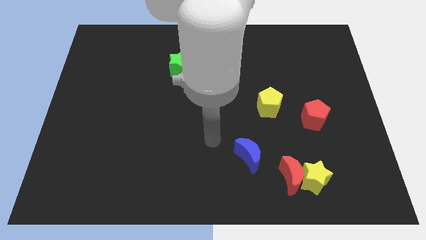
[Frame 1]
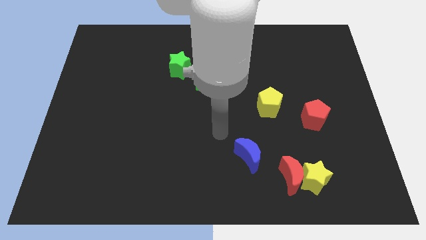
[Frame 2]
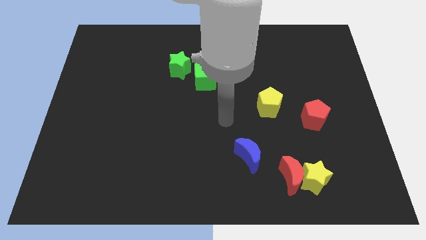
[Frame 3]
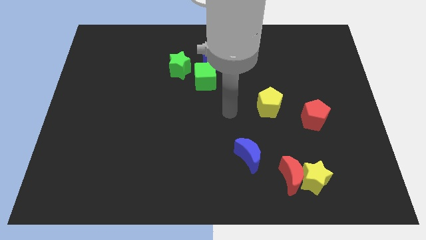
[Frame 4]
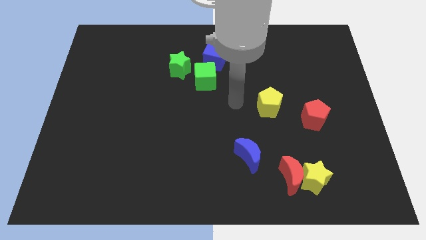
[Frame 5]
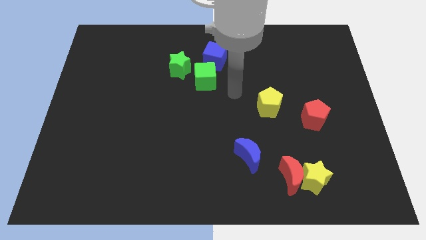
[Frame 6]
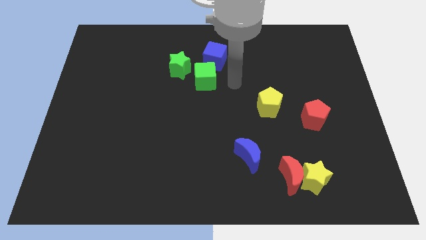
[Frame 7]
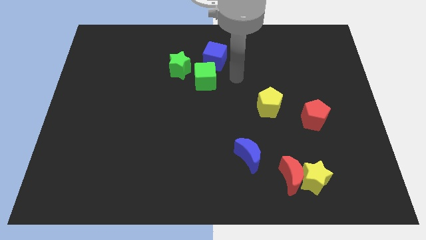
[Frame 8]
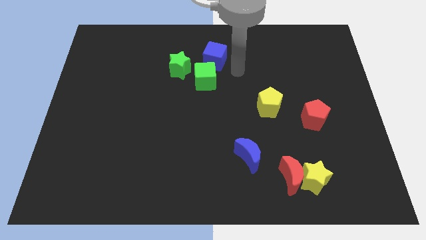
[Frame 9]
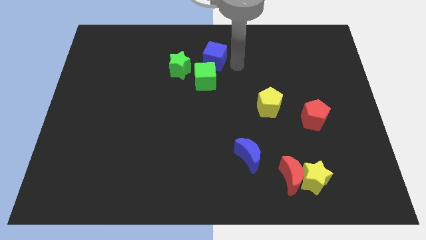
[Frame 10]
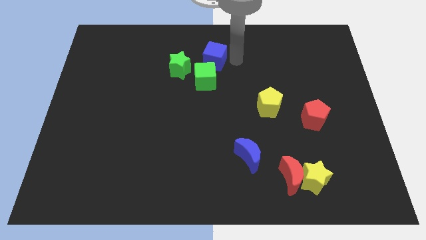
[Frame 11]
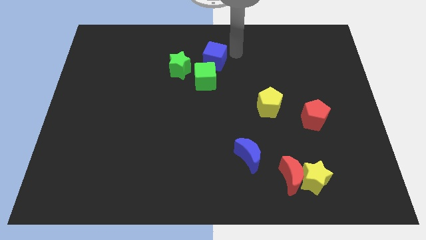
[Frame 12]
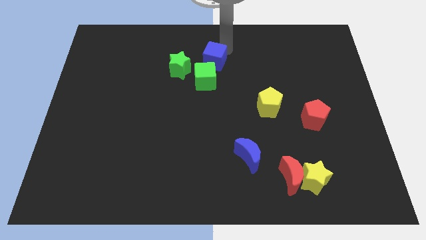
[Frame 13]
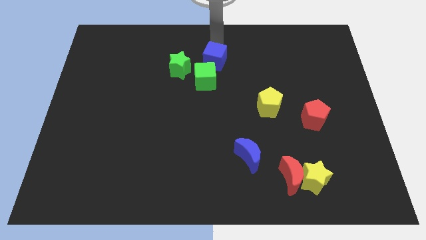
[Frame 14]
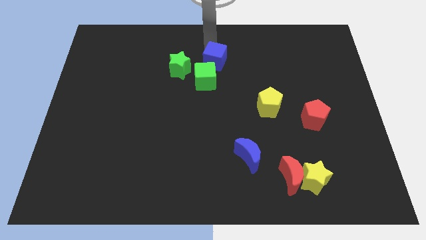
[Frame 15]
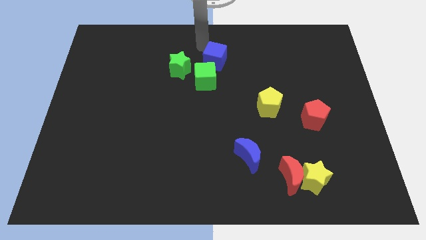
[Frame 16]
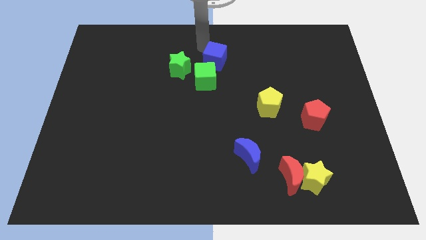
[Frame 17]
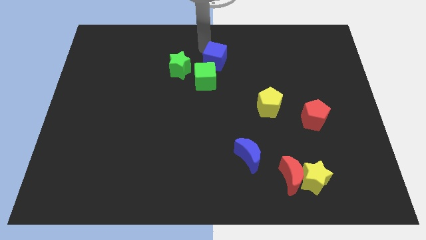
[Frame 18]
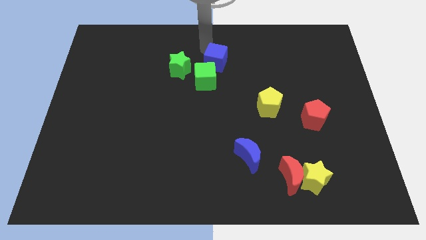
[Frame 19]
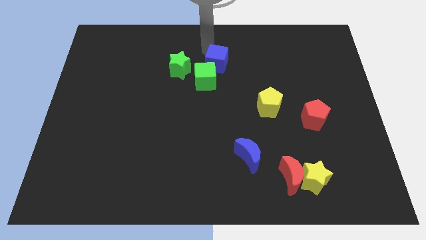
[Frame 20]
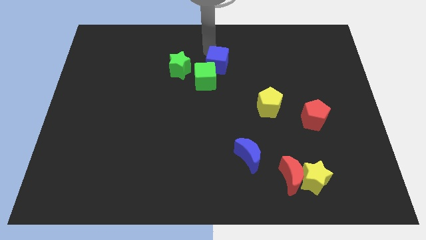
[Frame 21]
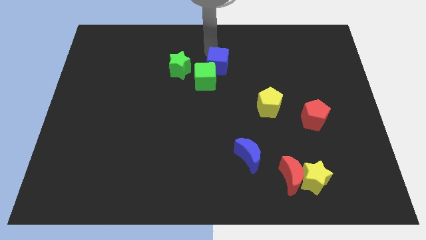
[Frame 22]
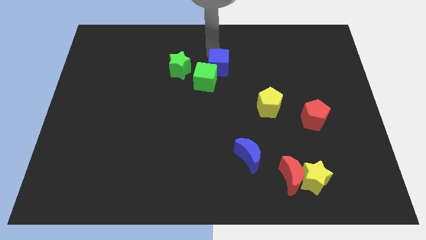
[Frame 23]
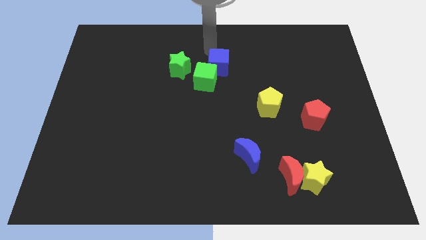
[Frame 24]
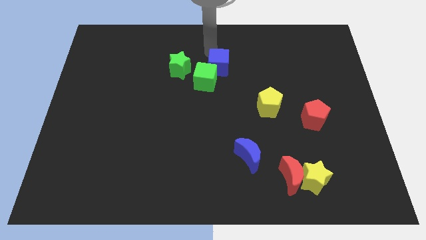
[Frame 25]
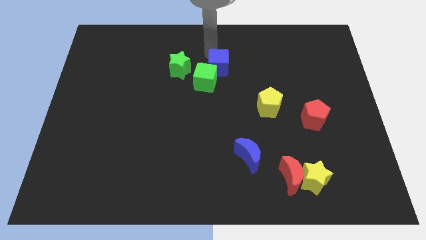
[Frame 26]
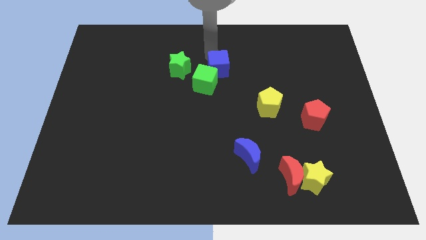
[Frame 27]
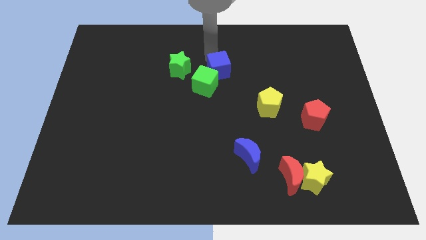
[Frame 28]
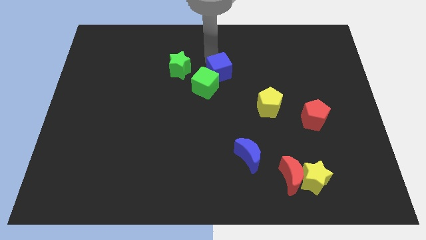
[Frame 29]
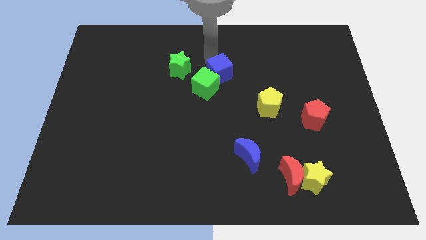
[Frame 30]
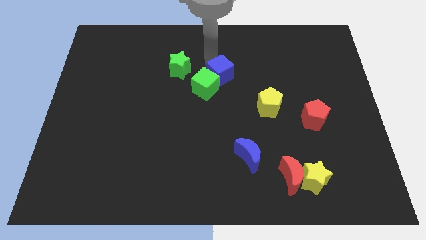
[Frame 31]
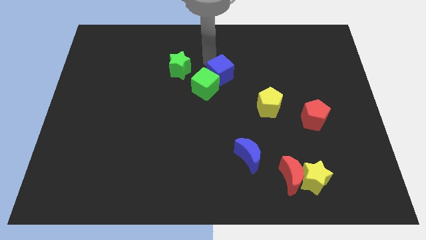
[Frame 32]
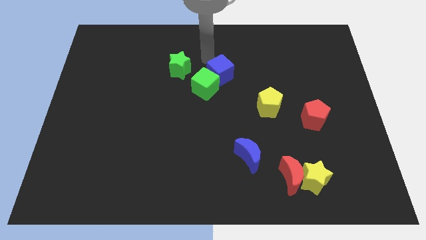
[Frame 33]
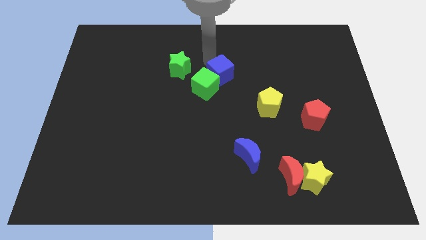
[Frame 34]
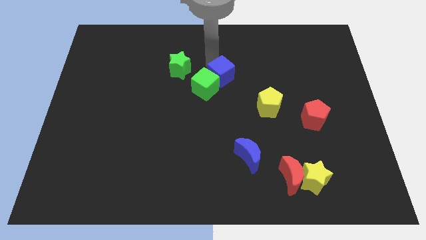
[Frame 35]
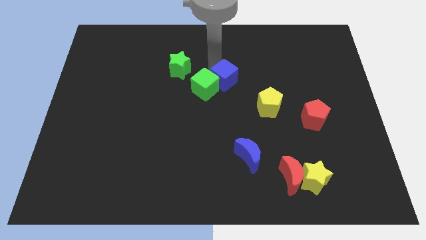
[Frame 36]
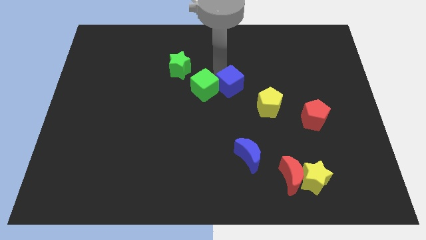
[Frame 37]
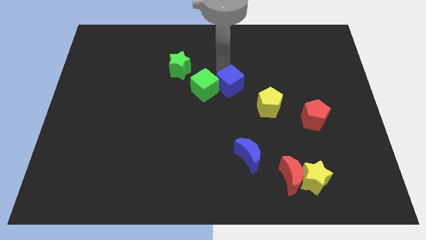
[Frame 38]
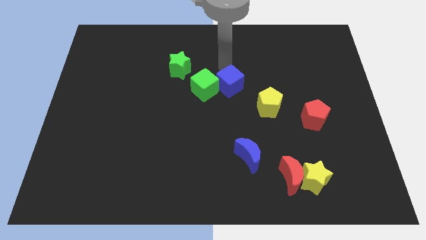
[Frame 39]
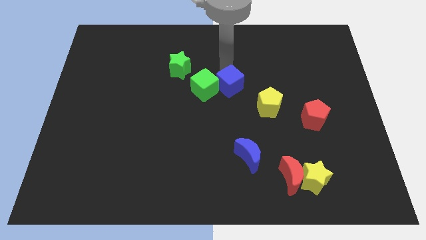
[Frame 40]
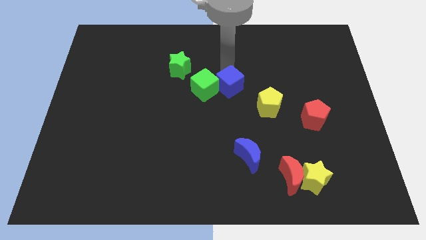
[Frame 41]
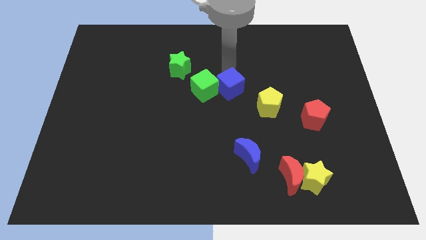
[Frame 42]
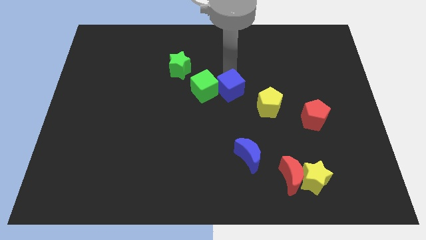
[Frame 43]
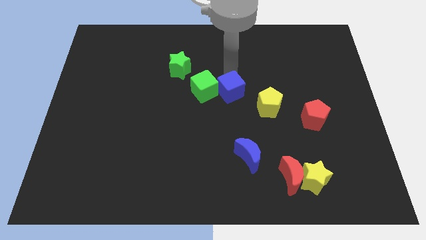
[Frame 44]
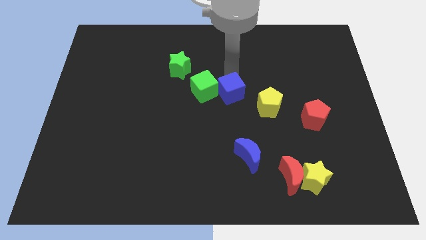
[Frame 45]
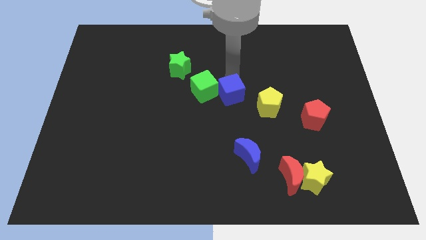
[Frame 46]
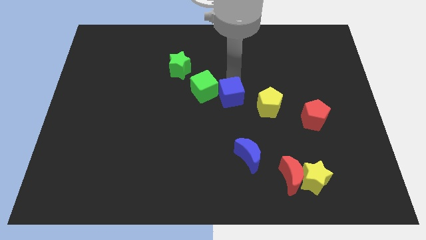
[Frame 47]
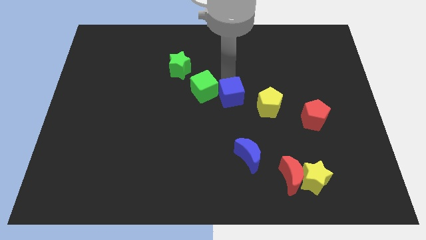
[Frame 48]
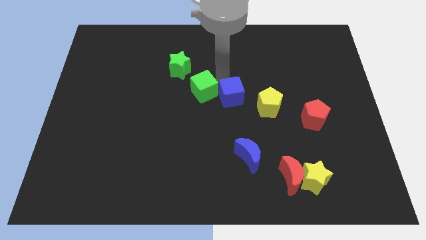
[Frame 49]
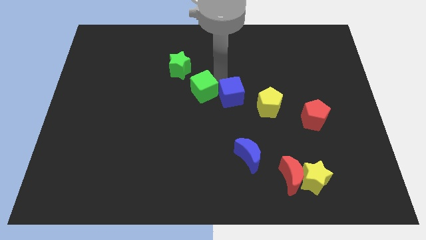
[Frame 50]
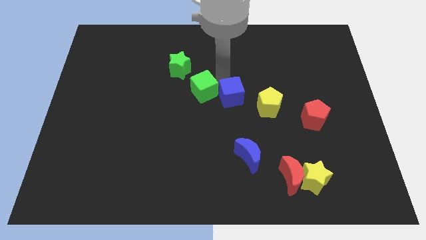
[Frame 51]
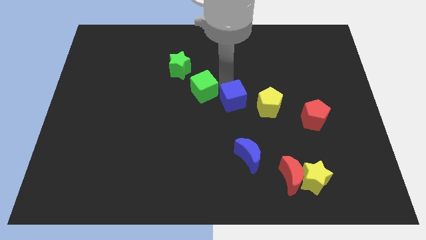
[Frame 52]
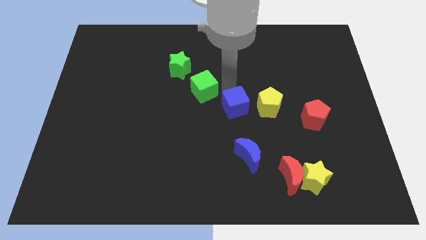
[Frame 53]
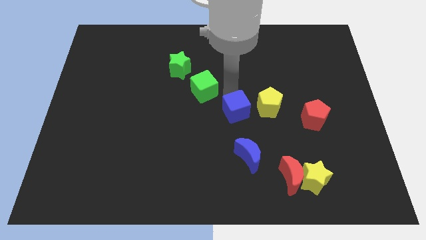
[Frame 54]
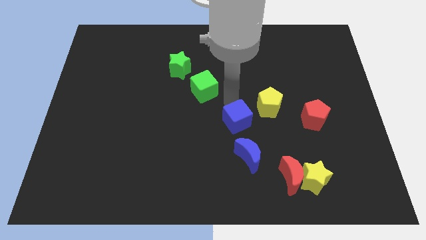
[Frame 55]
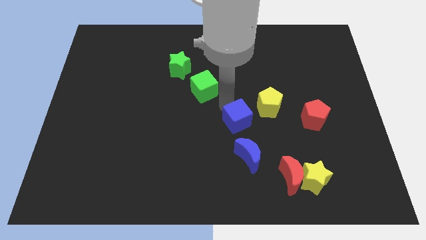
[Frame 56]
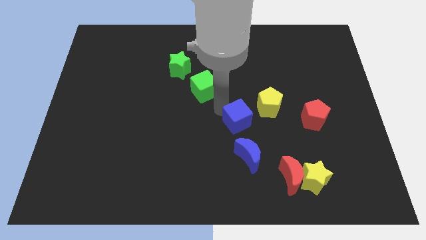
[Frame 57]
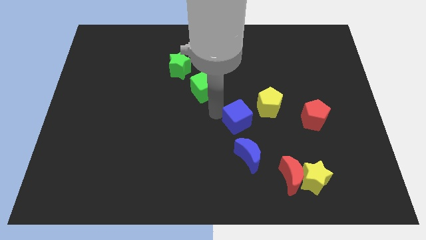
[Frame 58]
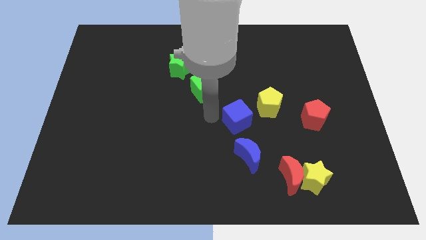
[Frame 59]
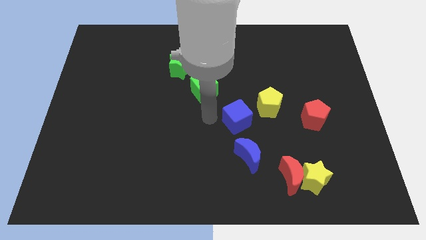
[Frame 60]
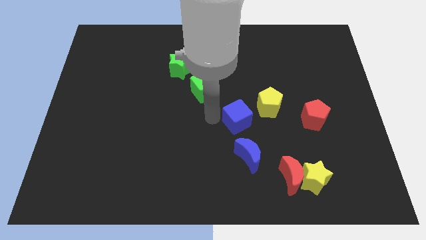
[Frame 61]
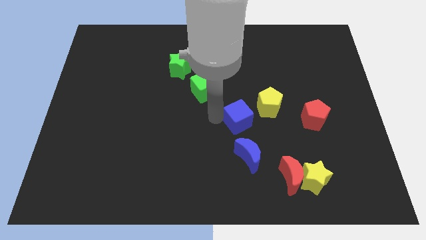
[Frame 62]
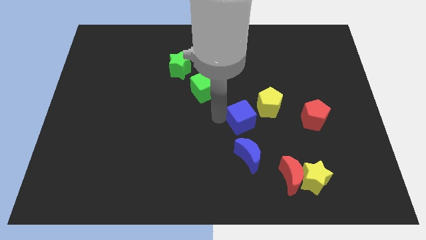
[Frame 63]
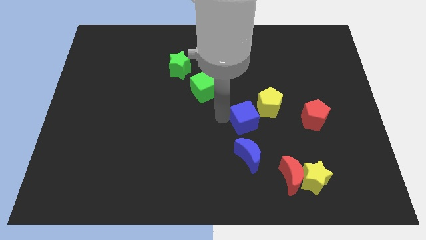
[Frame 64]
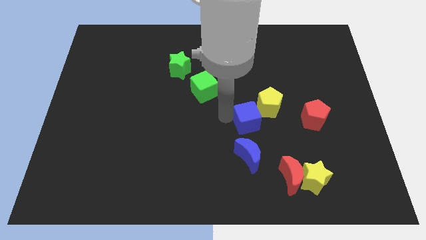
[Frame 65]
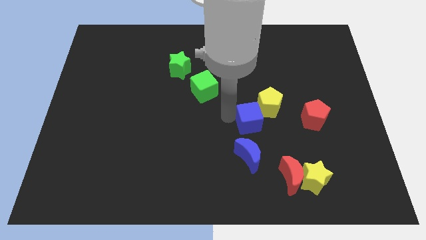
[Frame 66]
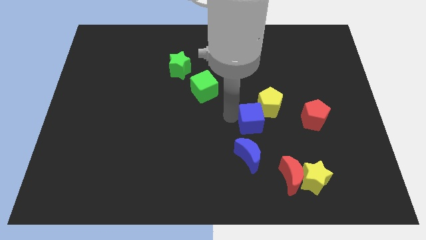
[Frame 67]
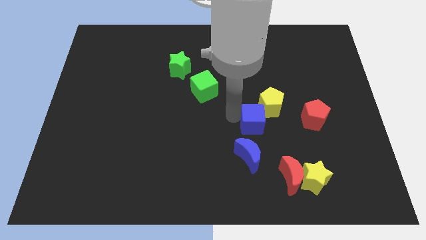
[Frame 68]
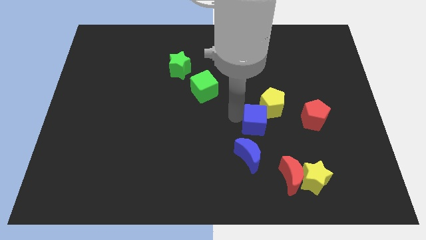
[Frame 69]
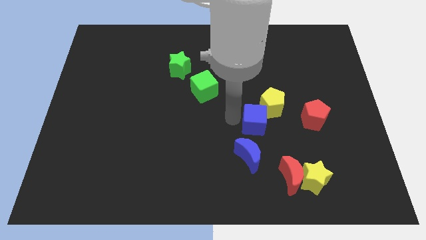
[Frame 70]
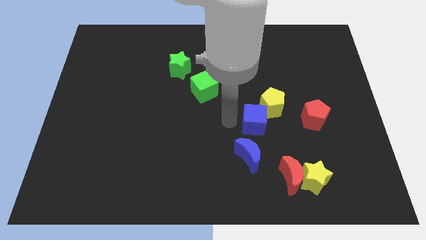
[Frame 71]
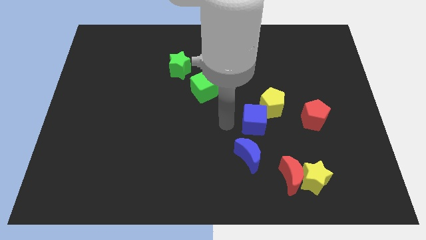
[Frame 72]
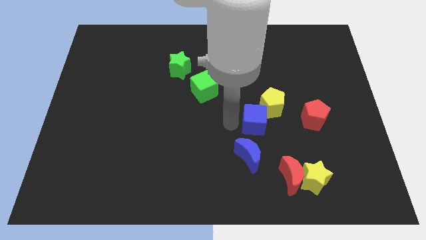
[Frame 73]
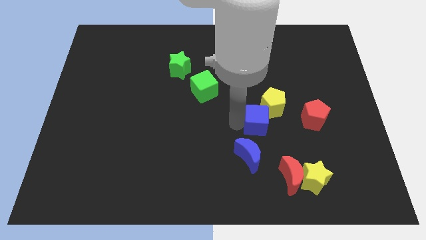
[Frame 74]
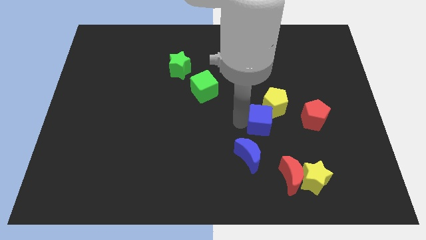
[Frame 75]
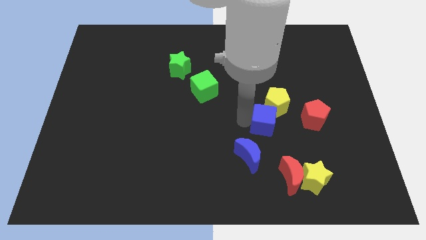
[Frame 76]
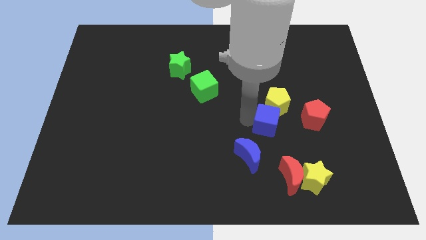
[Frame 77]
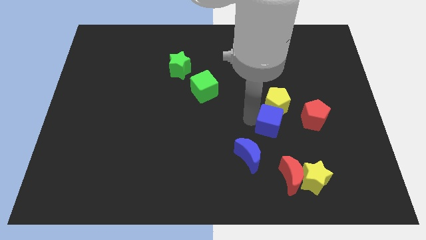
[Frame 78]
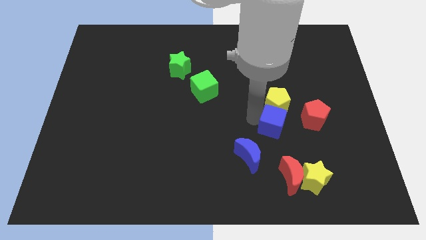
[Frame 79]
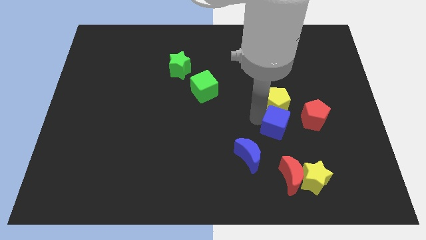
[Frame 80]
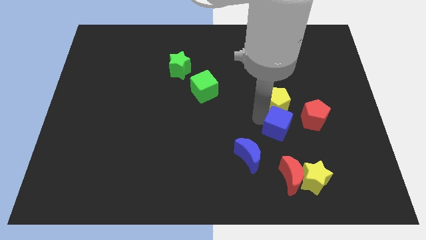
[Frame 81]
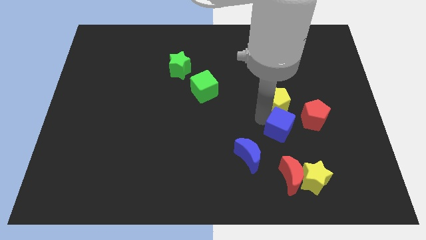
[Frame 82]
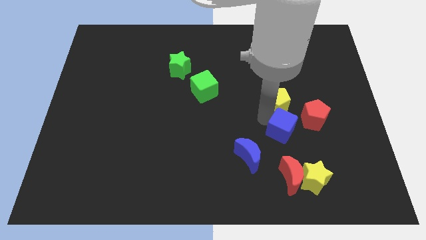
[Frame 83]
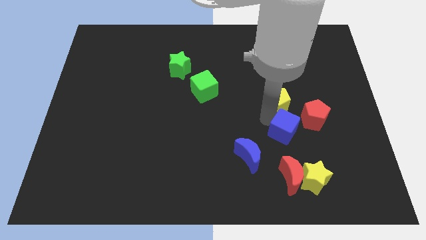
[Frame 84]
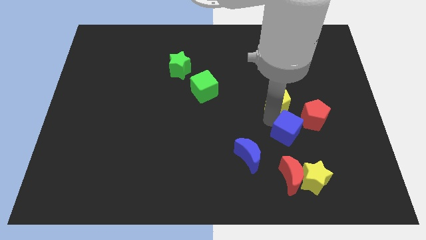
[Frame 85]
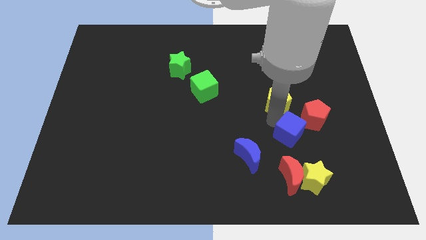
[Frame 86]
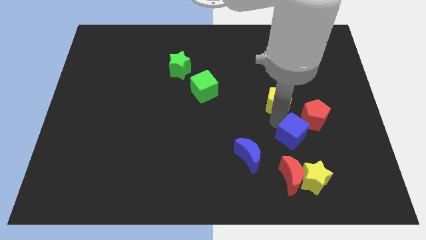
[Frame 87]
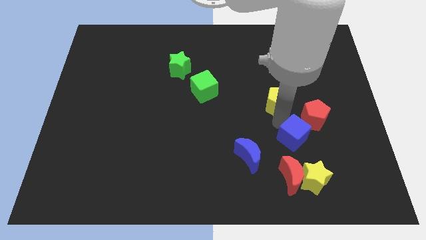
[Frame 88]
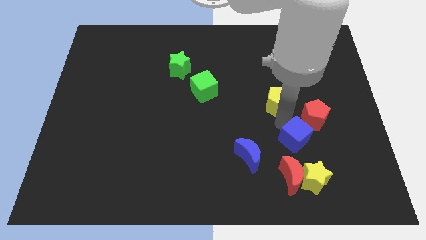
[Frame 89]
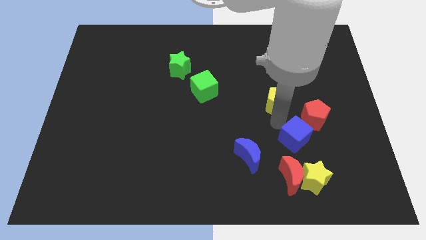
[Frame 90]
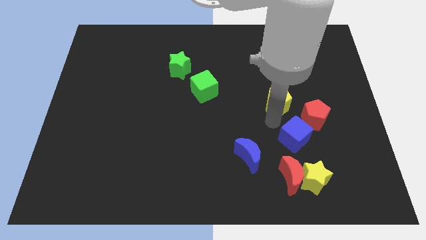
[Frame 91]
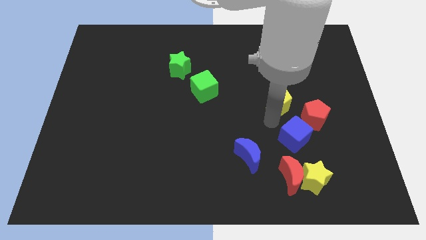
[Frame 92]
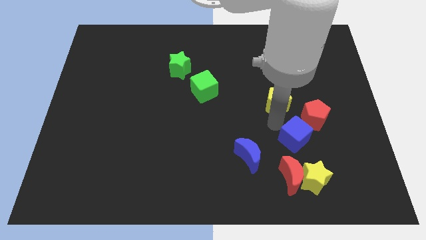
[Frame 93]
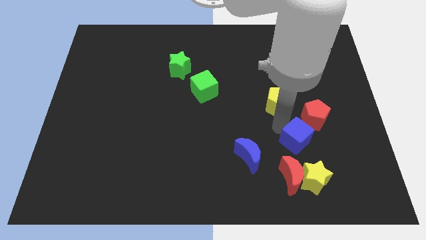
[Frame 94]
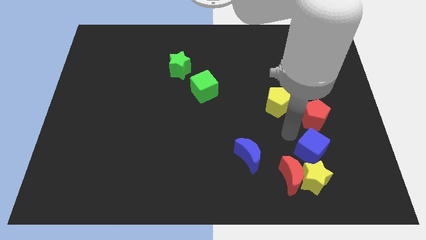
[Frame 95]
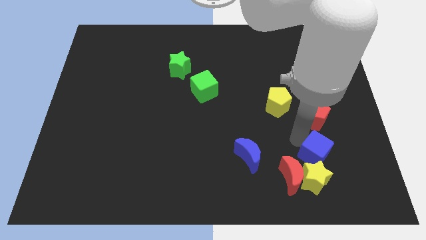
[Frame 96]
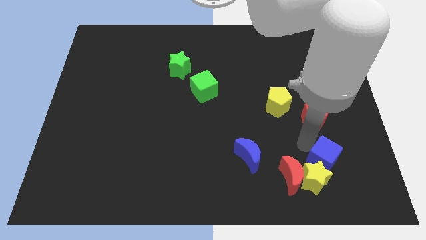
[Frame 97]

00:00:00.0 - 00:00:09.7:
push the blue cube just right of the red moon
